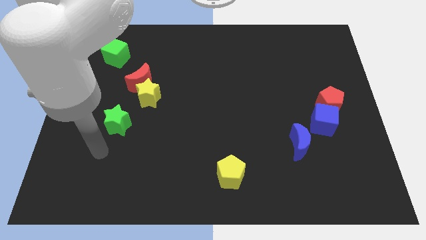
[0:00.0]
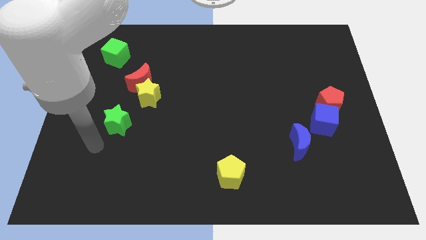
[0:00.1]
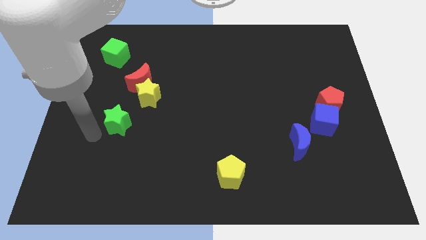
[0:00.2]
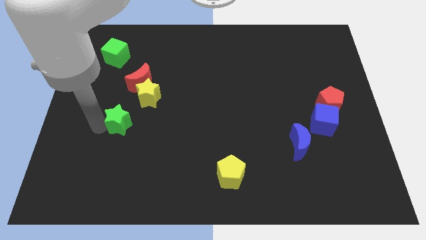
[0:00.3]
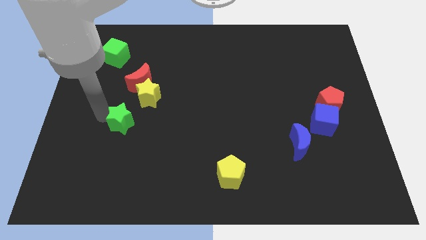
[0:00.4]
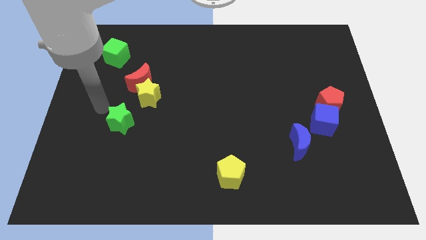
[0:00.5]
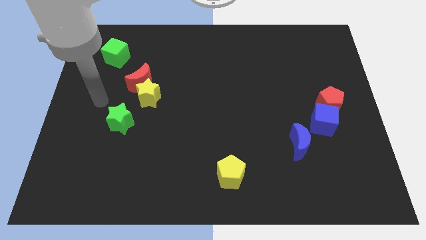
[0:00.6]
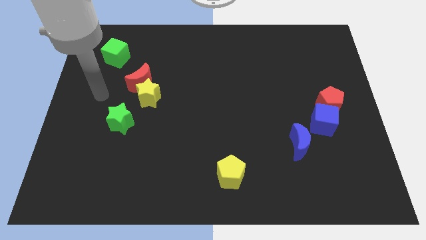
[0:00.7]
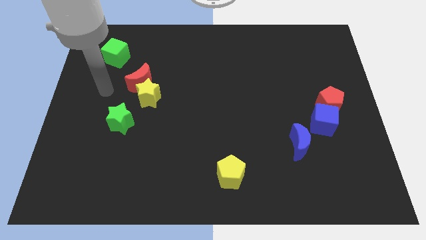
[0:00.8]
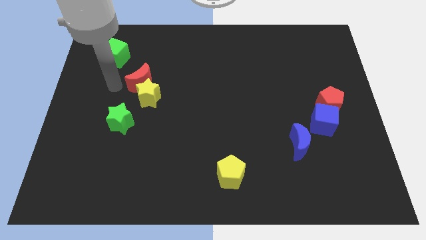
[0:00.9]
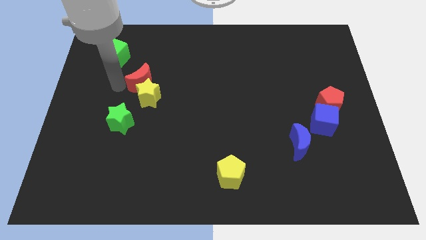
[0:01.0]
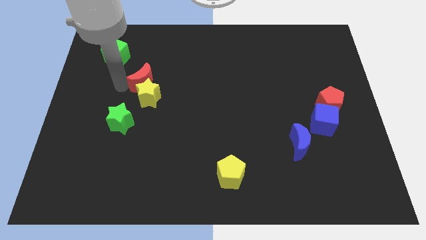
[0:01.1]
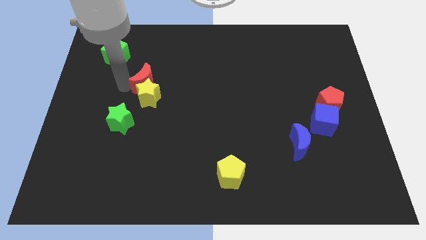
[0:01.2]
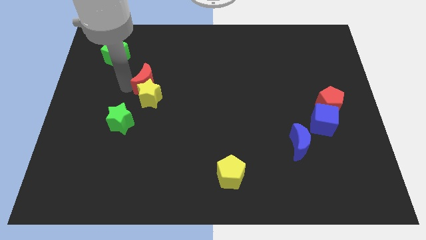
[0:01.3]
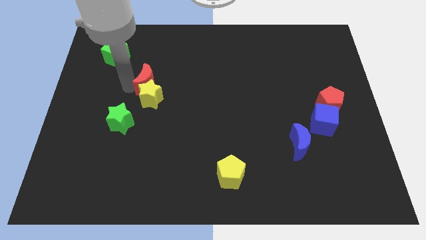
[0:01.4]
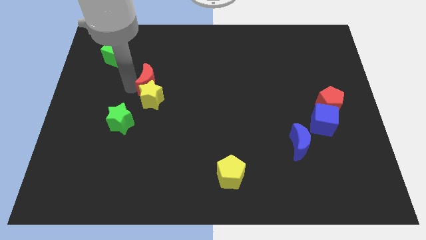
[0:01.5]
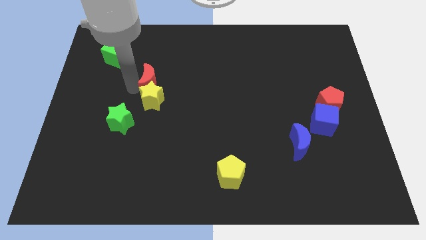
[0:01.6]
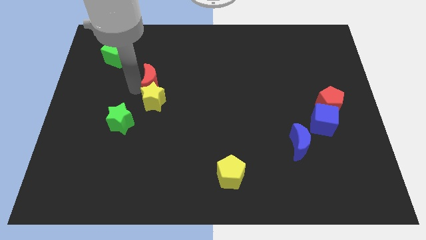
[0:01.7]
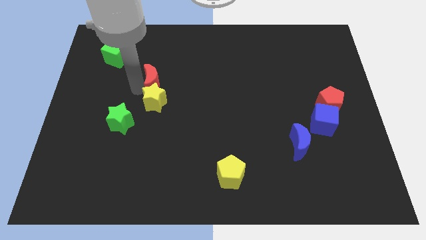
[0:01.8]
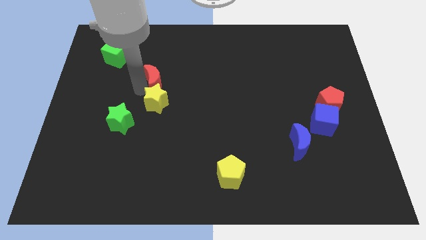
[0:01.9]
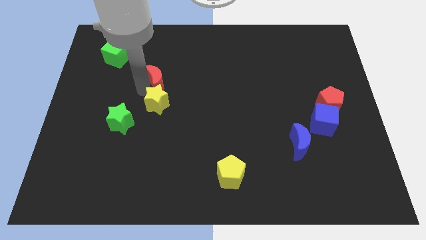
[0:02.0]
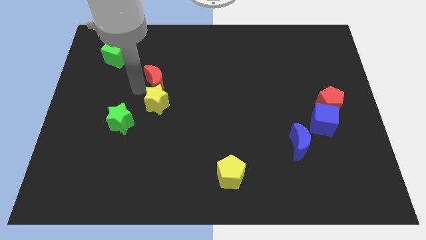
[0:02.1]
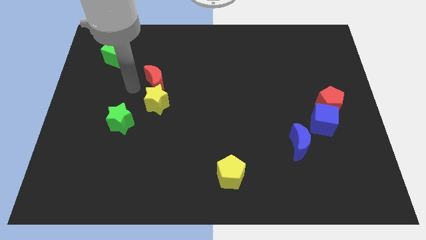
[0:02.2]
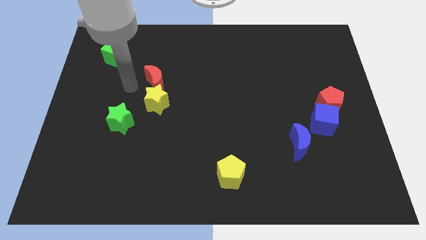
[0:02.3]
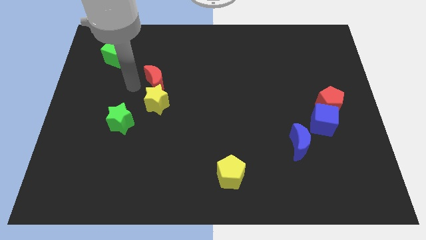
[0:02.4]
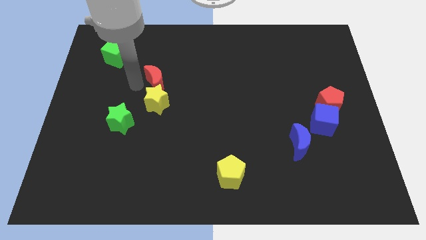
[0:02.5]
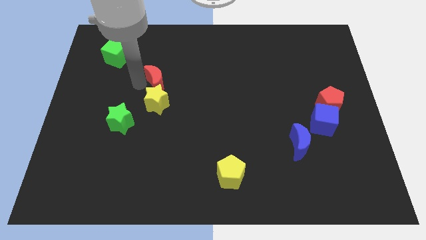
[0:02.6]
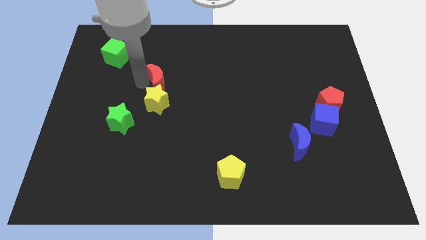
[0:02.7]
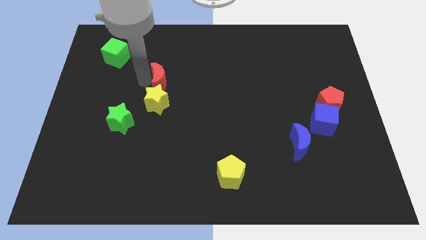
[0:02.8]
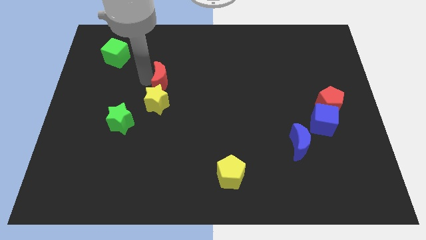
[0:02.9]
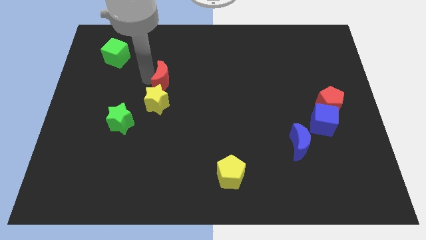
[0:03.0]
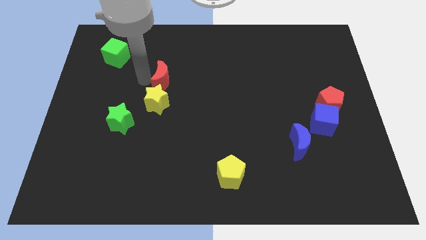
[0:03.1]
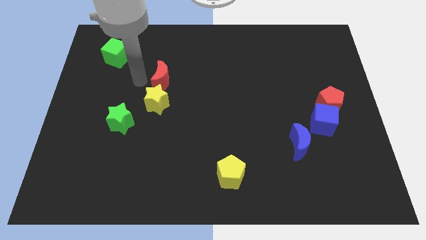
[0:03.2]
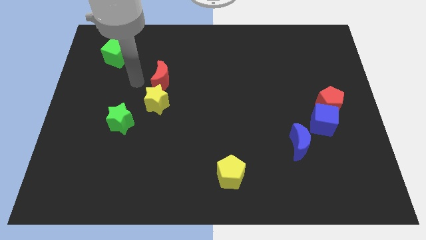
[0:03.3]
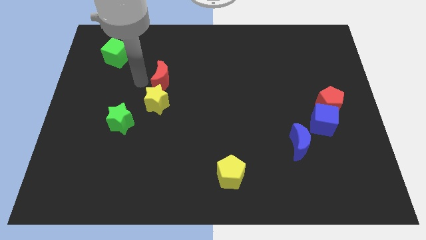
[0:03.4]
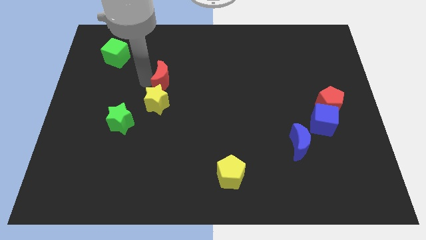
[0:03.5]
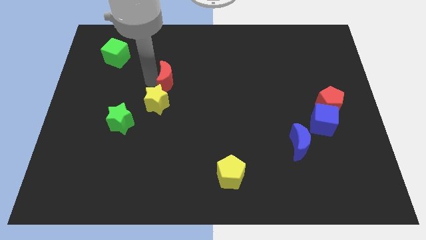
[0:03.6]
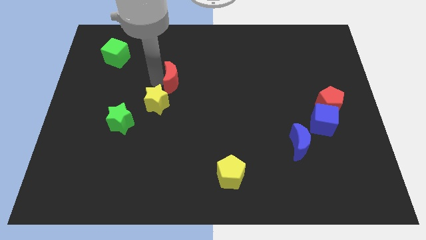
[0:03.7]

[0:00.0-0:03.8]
push the red moon somewhat to the right

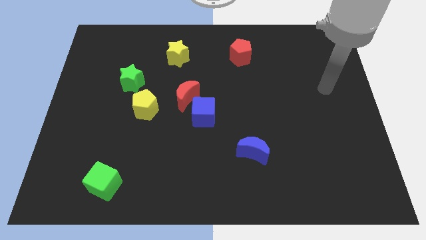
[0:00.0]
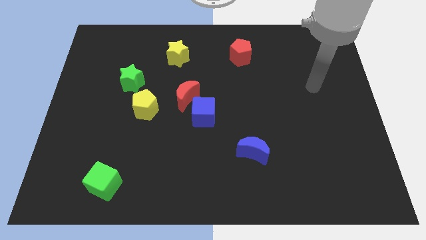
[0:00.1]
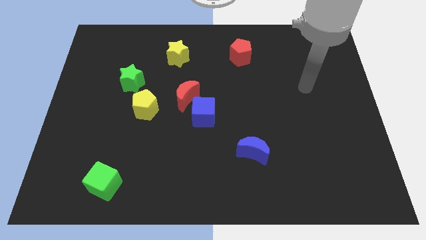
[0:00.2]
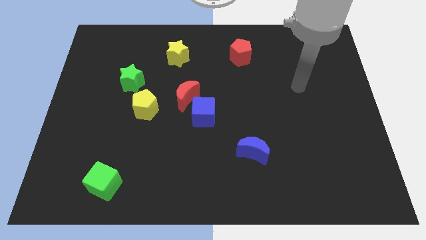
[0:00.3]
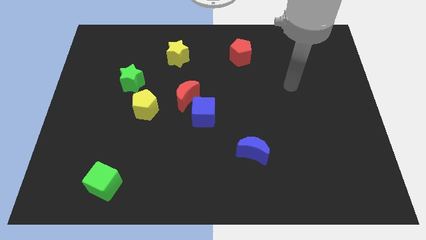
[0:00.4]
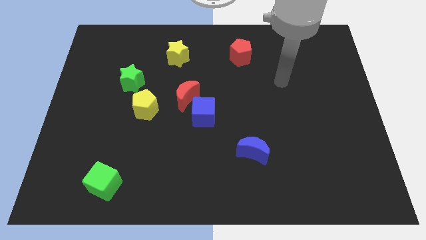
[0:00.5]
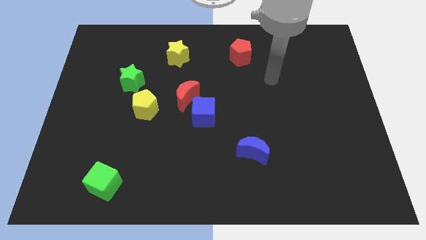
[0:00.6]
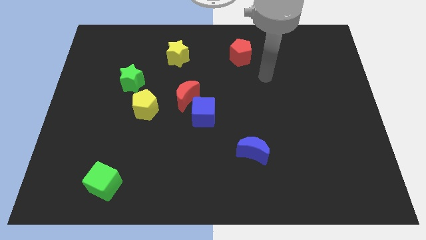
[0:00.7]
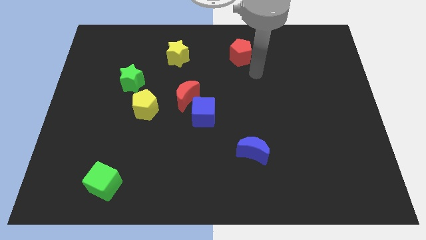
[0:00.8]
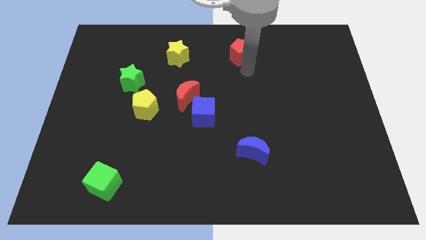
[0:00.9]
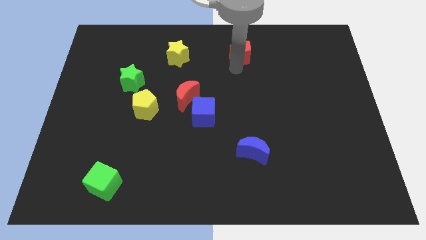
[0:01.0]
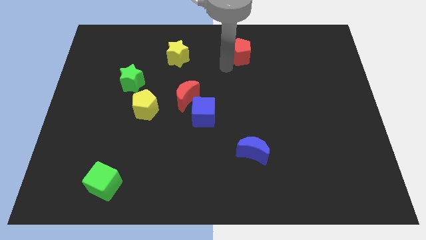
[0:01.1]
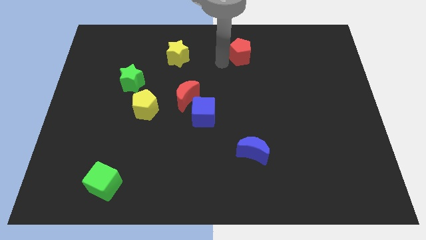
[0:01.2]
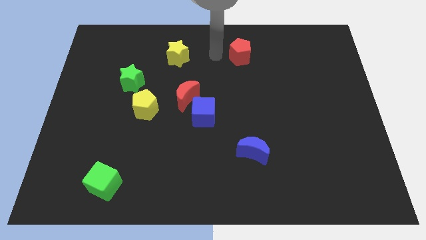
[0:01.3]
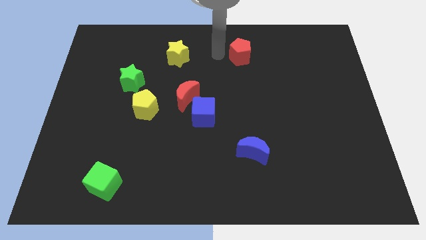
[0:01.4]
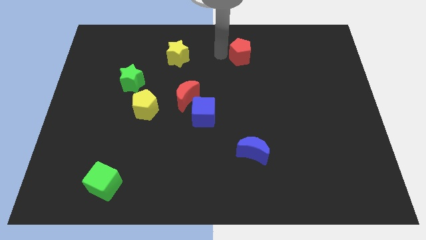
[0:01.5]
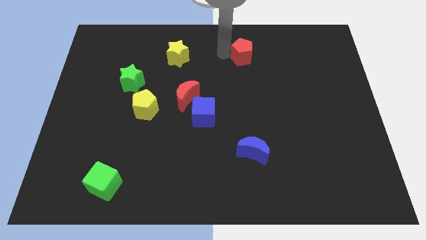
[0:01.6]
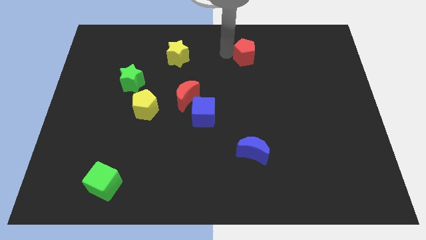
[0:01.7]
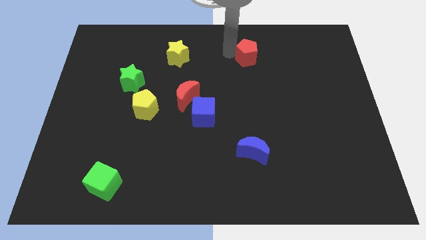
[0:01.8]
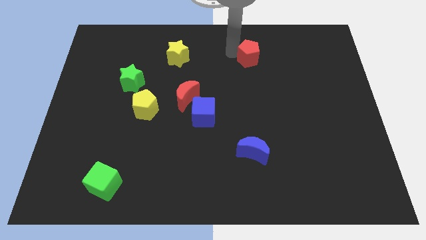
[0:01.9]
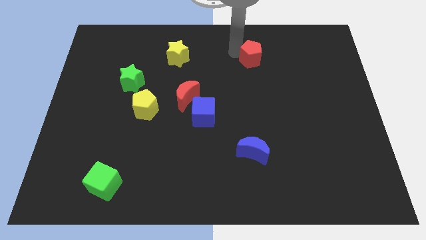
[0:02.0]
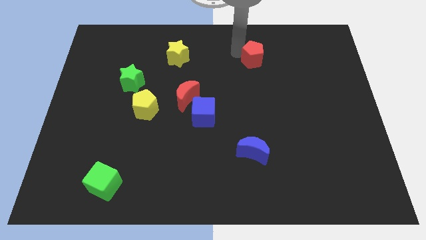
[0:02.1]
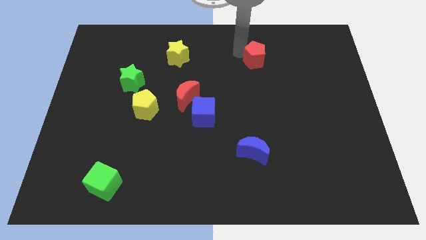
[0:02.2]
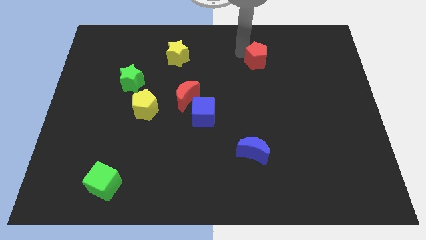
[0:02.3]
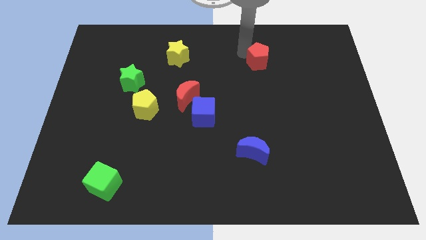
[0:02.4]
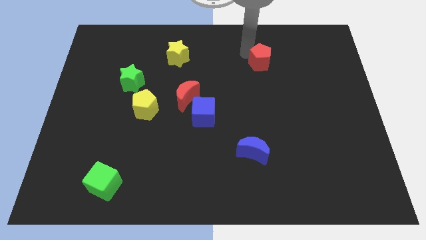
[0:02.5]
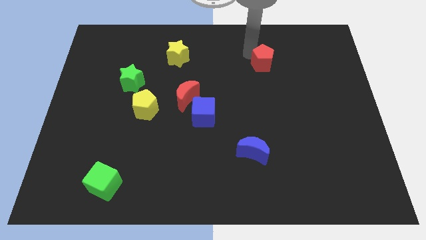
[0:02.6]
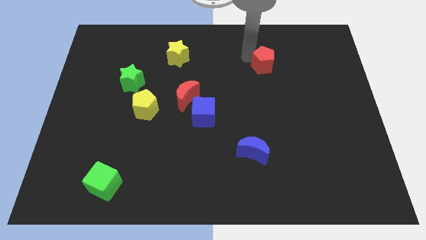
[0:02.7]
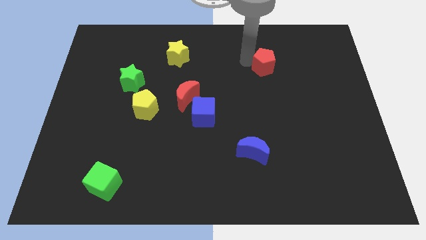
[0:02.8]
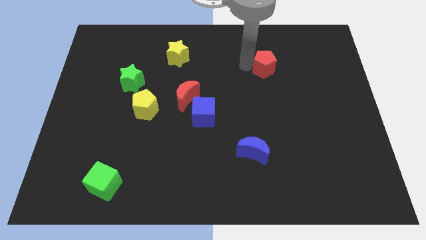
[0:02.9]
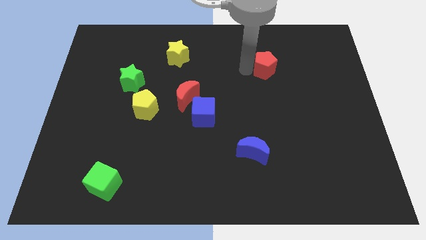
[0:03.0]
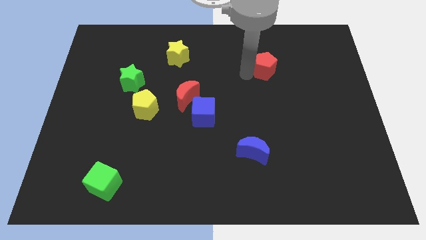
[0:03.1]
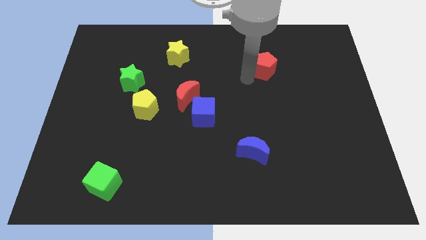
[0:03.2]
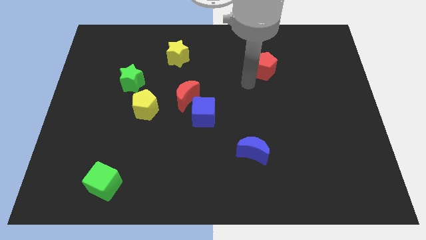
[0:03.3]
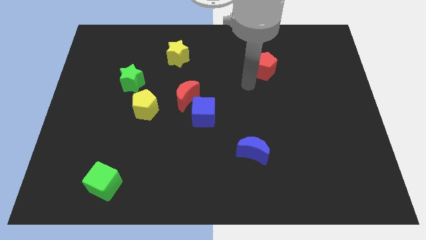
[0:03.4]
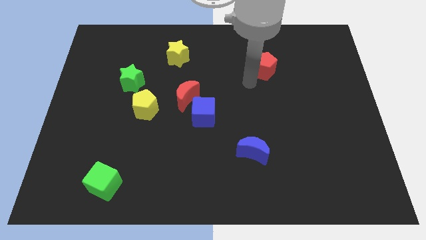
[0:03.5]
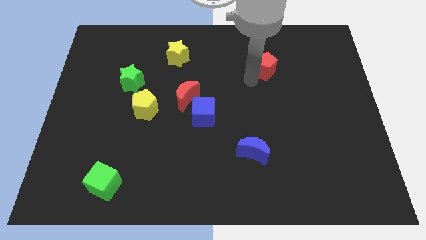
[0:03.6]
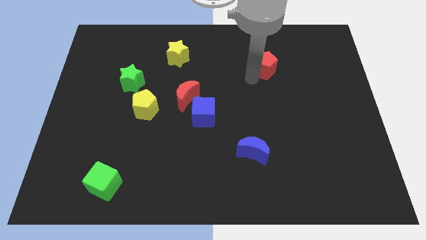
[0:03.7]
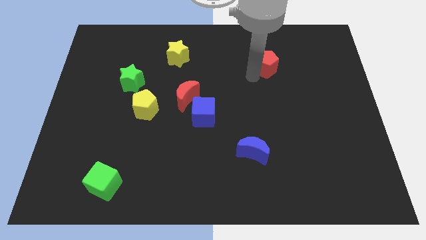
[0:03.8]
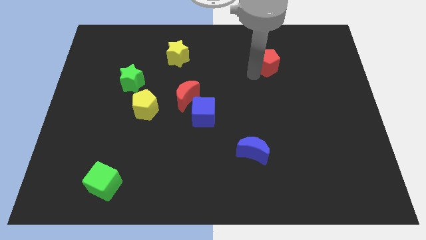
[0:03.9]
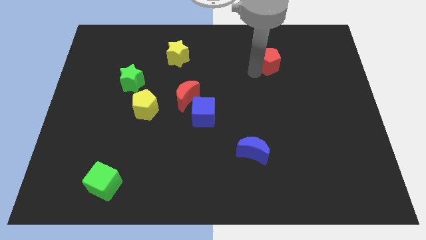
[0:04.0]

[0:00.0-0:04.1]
push the red pentagon a little right
